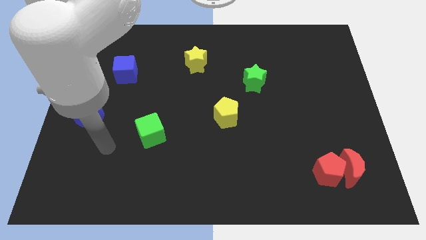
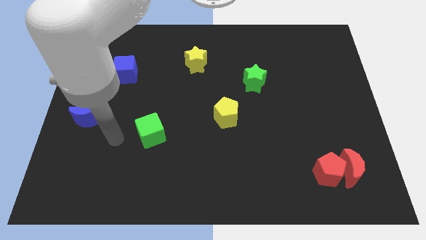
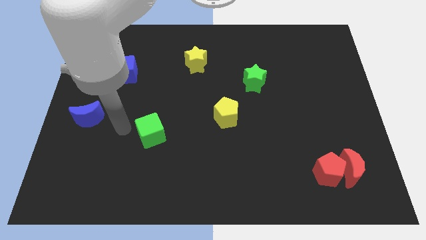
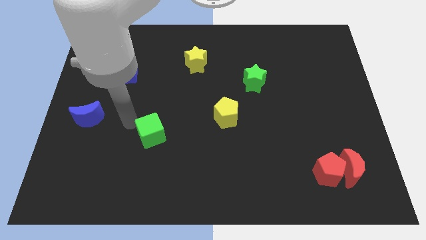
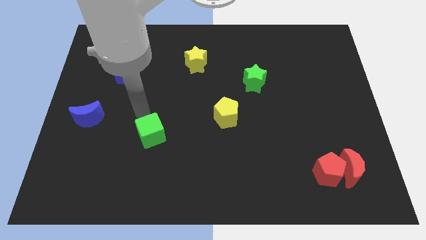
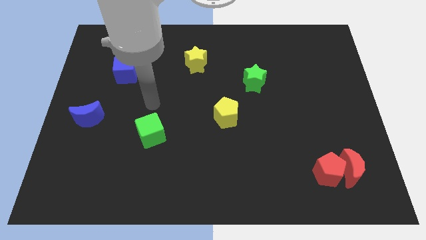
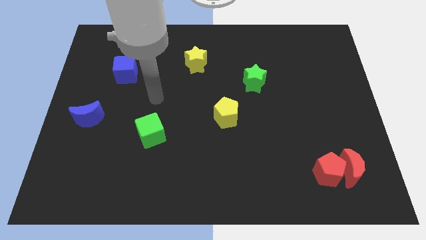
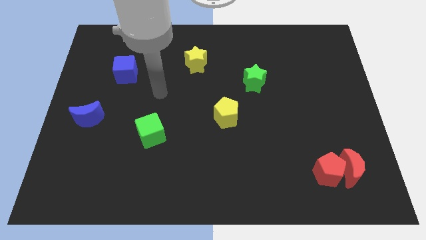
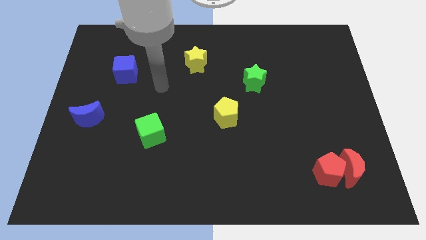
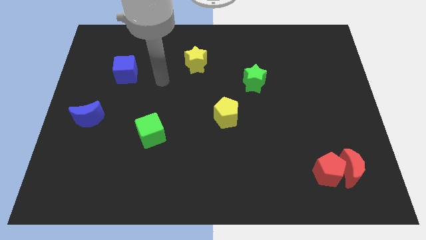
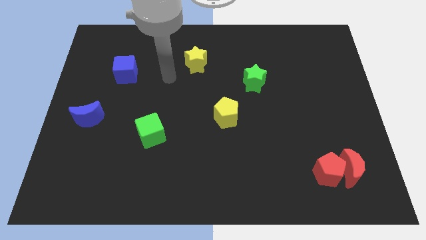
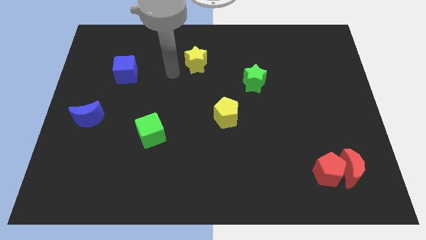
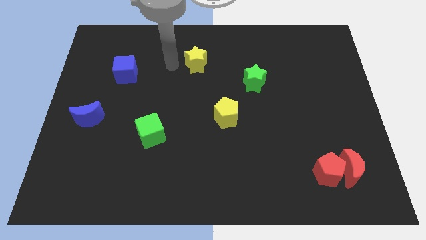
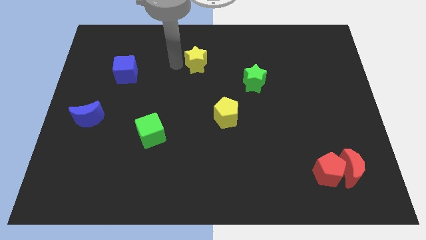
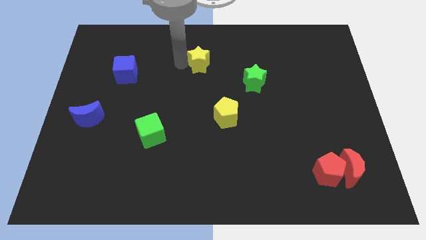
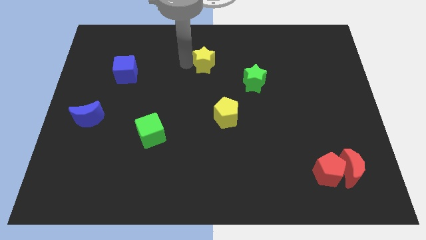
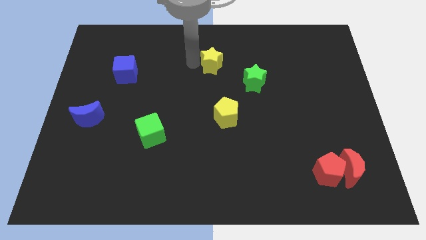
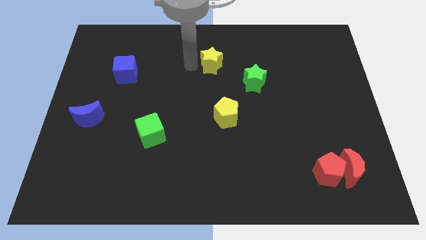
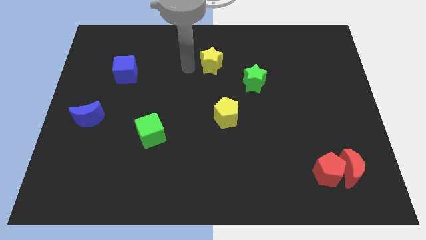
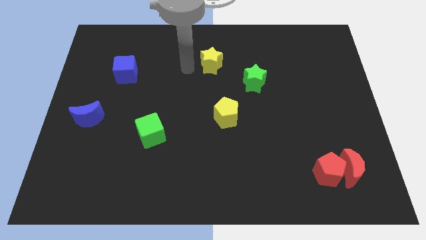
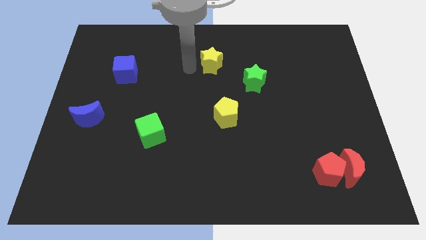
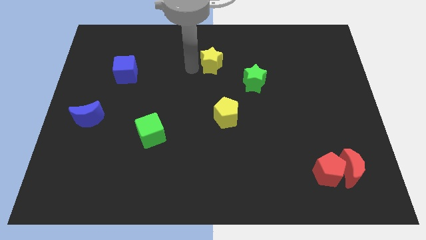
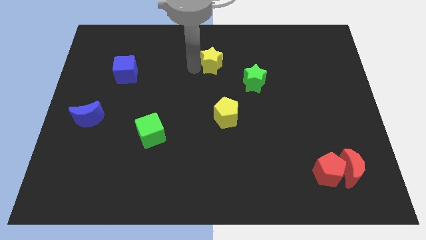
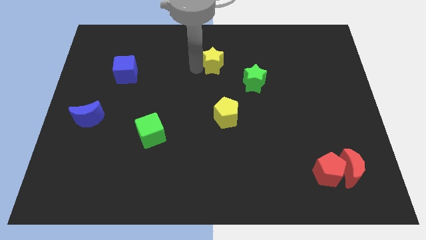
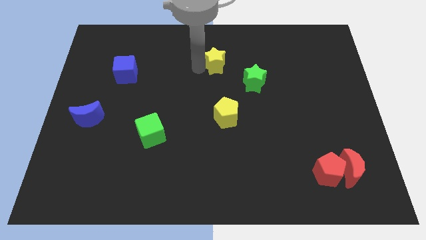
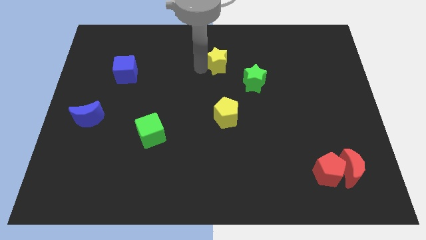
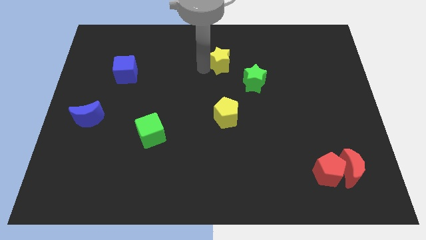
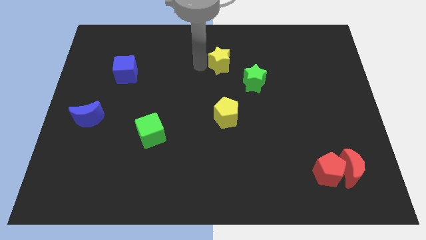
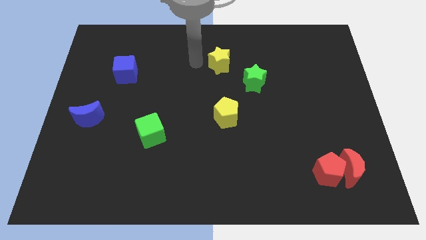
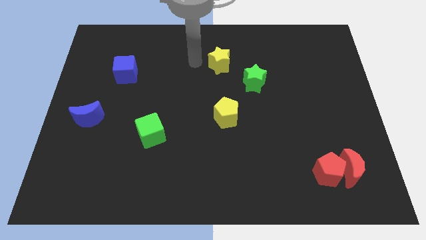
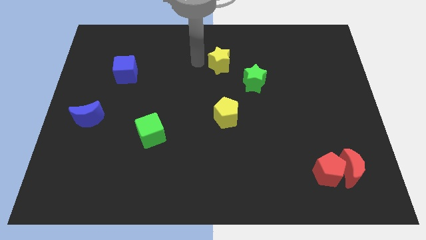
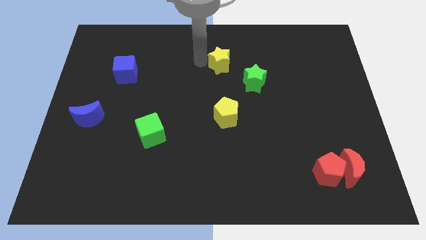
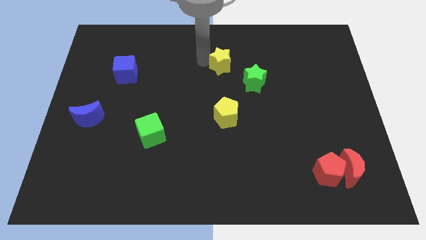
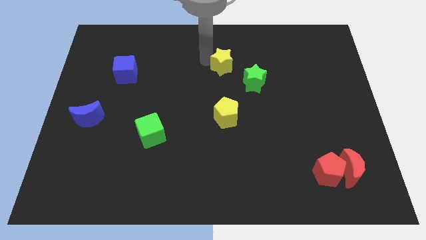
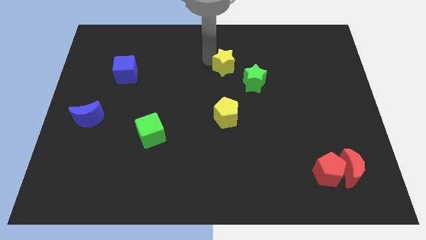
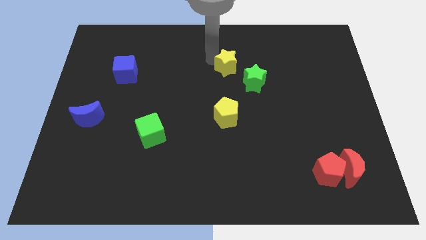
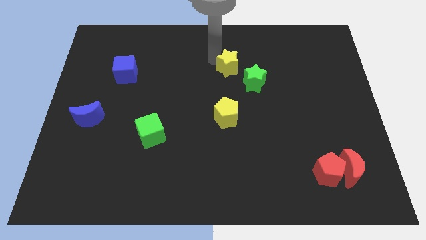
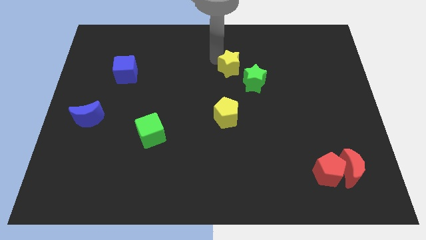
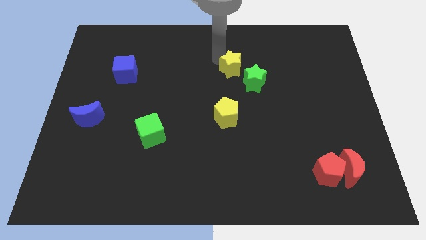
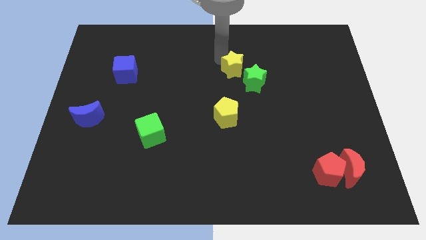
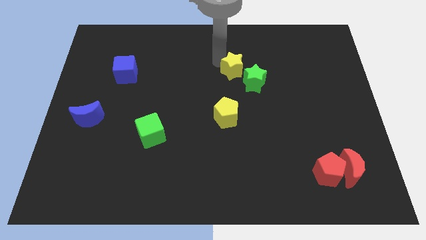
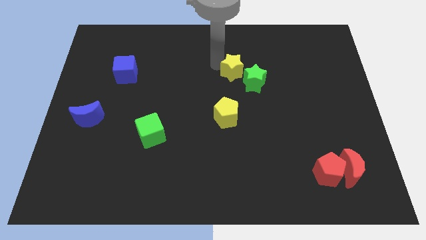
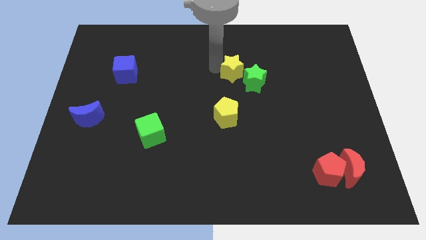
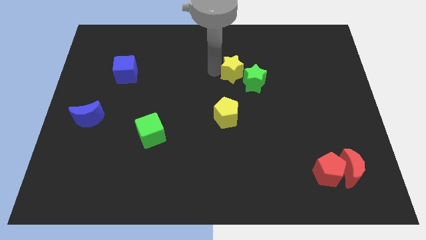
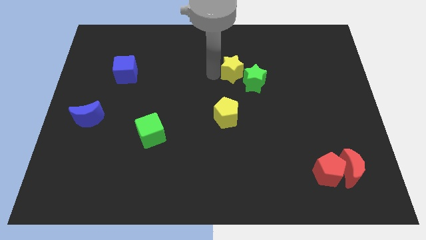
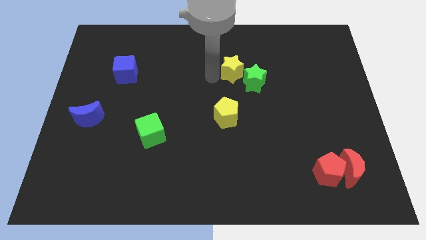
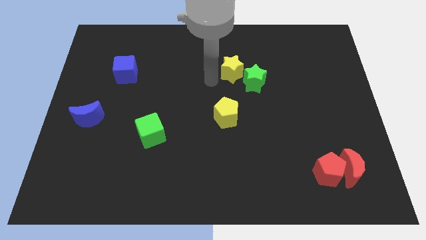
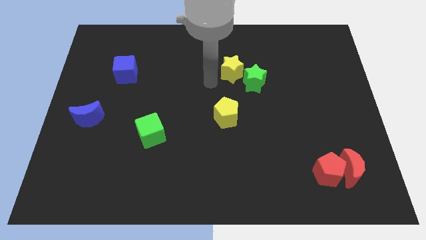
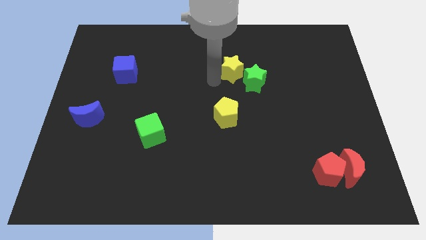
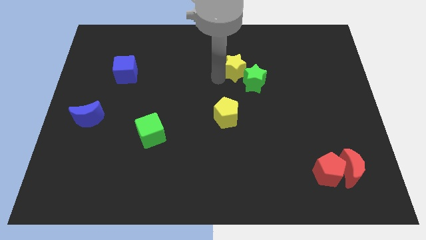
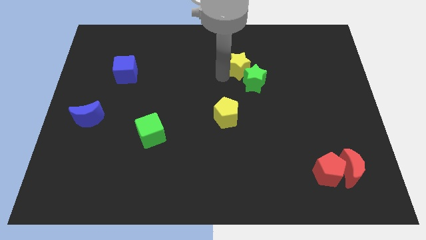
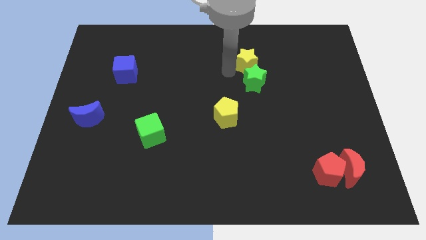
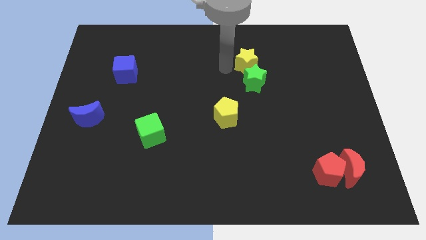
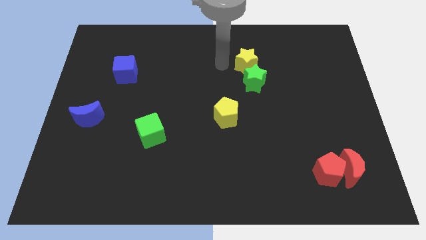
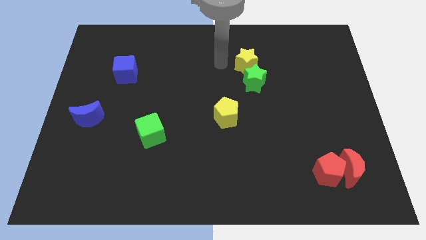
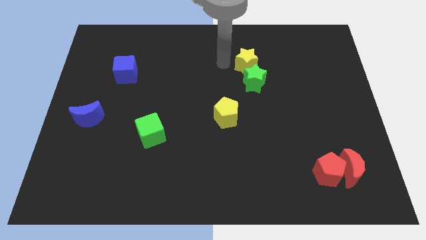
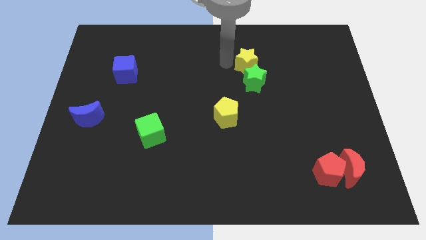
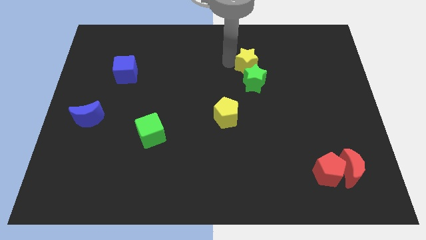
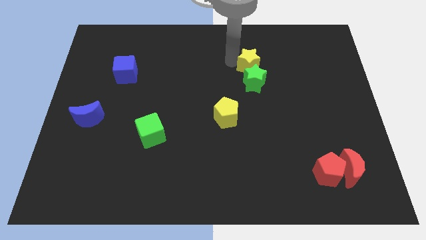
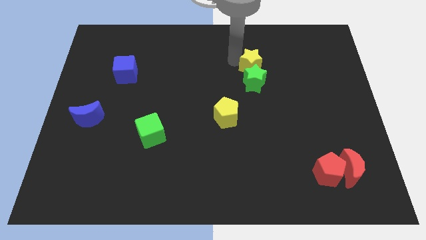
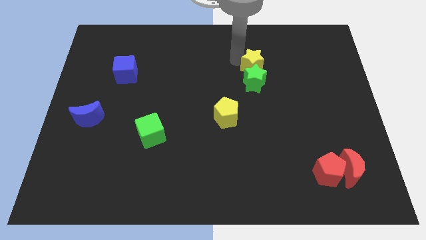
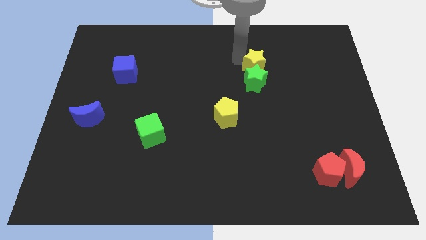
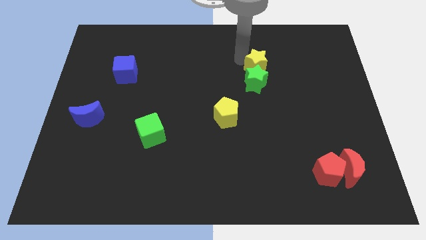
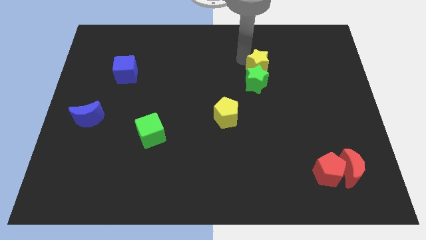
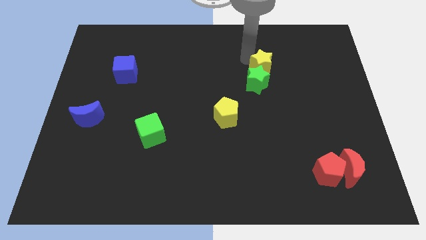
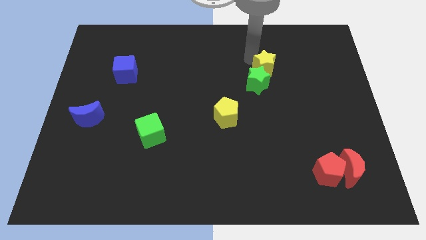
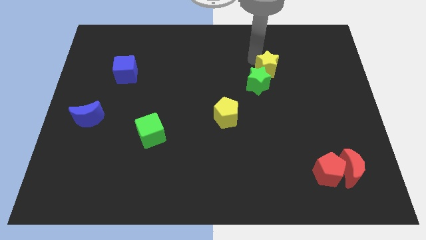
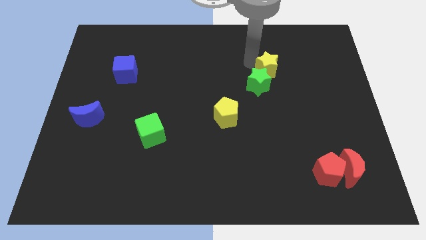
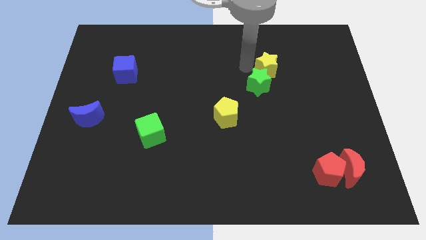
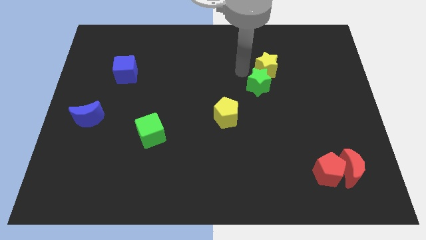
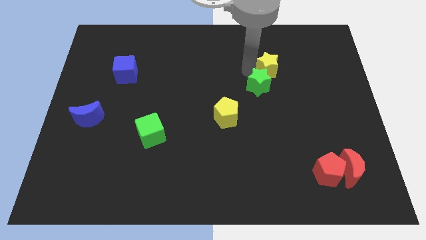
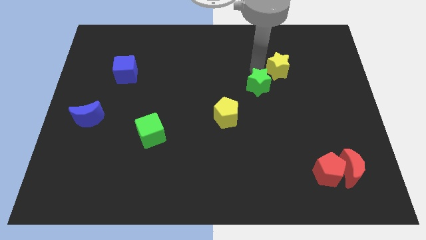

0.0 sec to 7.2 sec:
push the yellow star right

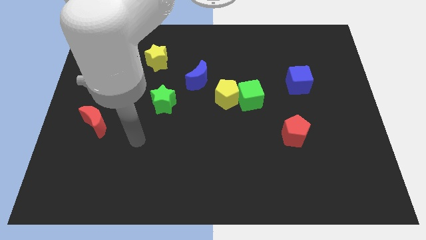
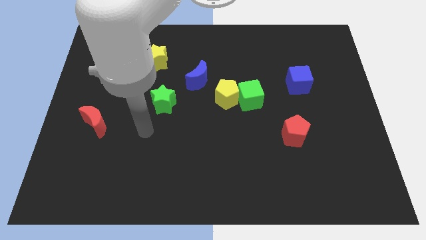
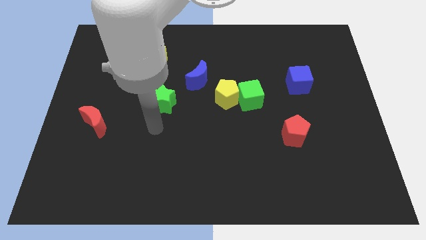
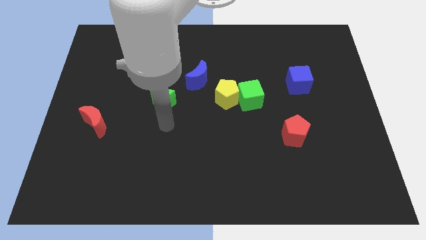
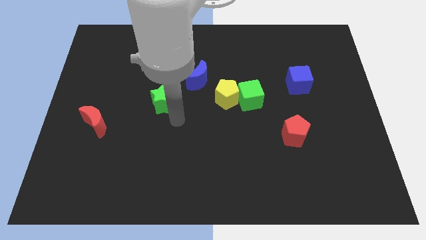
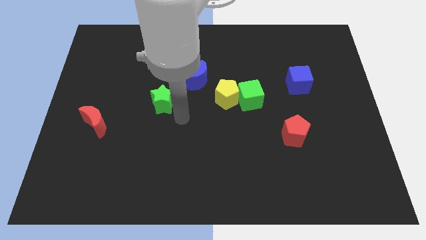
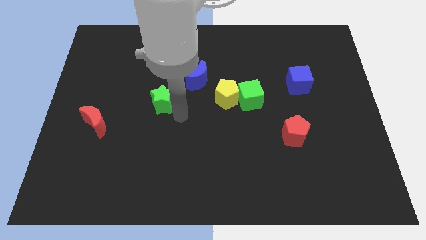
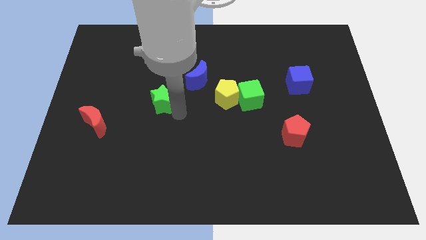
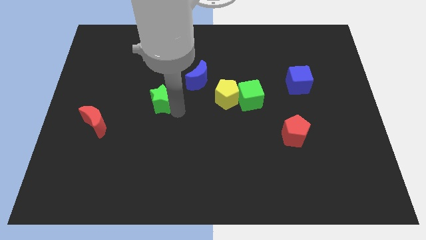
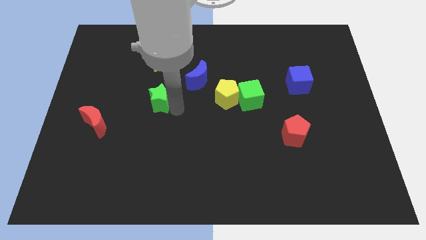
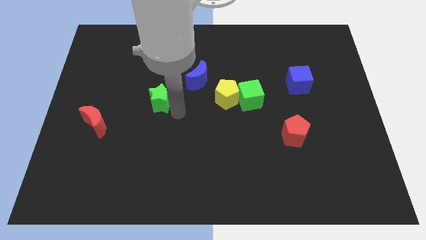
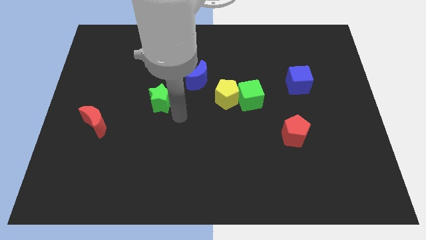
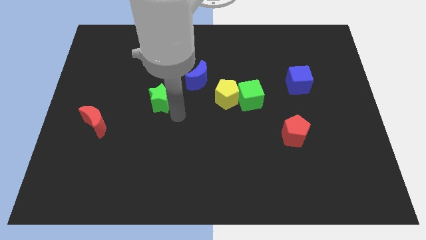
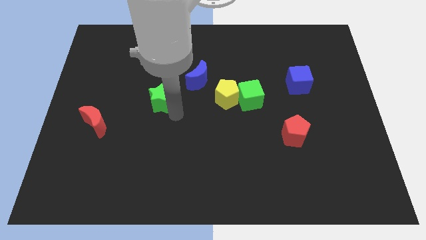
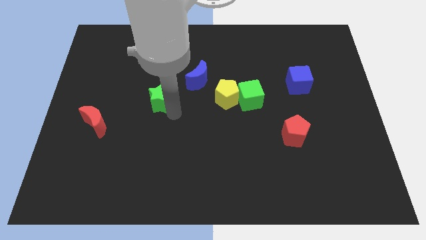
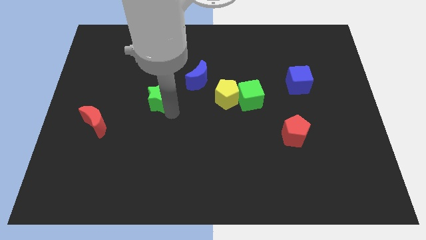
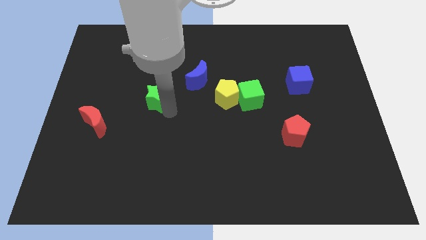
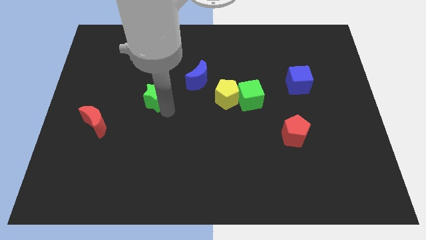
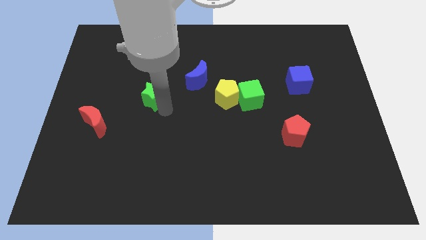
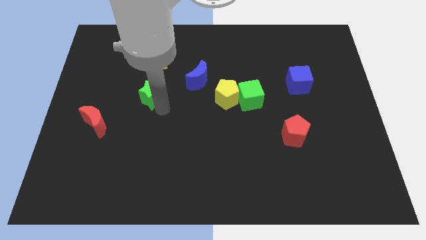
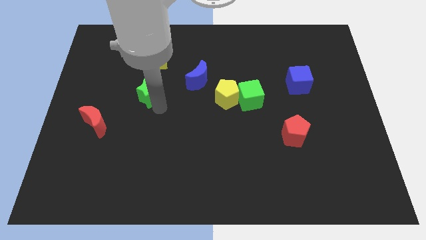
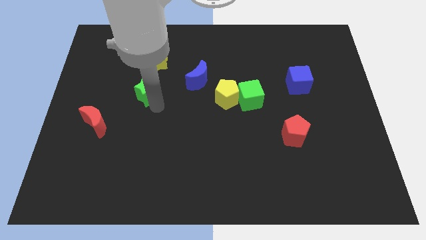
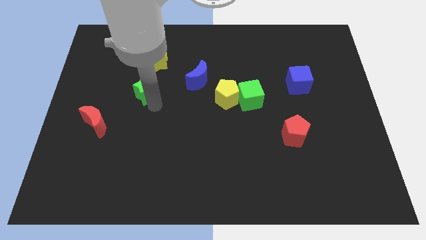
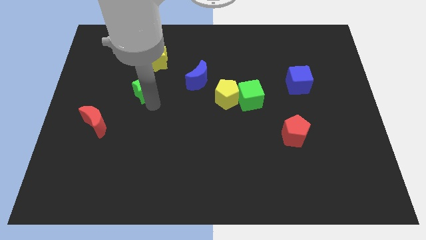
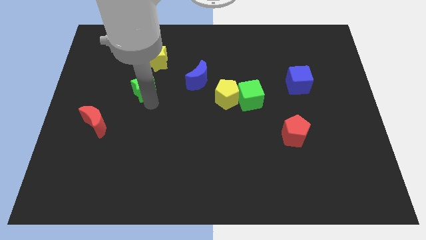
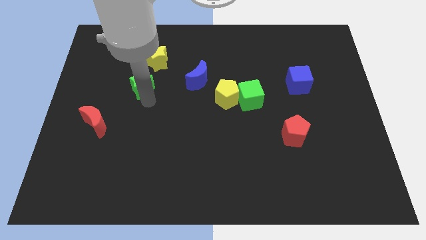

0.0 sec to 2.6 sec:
push the green star a little bit up and left
